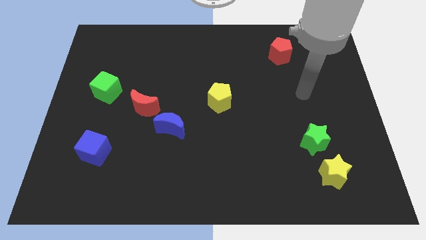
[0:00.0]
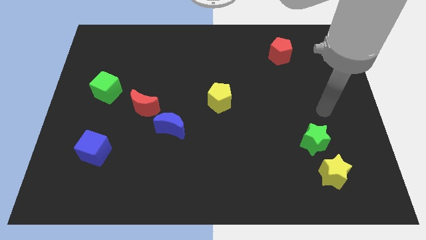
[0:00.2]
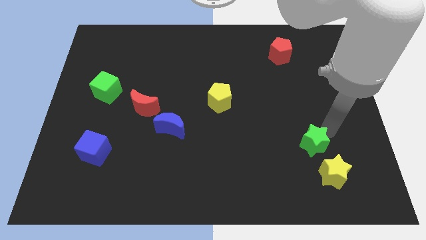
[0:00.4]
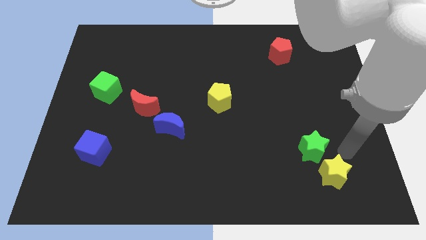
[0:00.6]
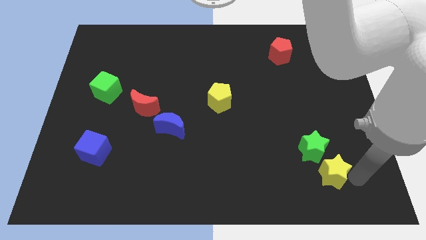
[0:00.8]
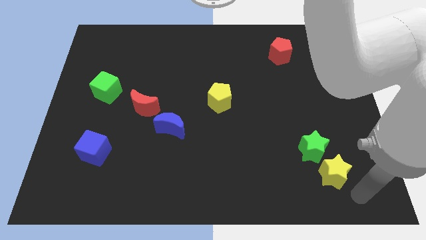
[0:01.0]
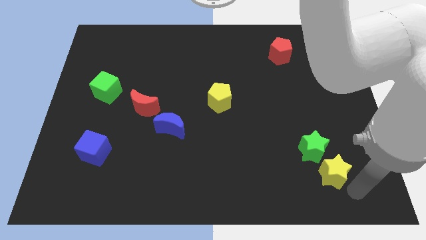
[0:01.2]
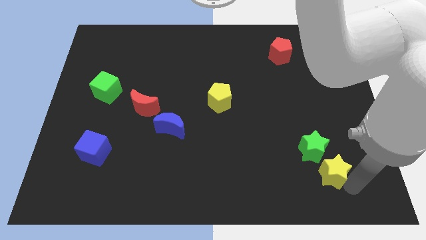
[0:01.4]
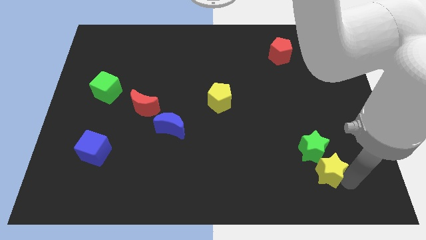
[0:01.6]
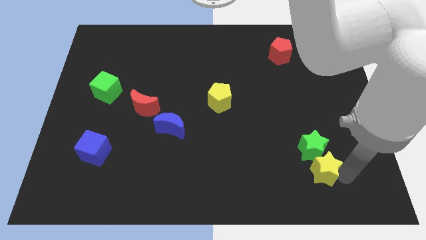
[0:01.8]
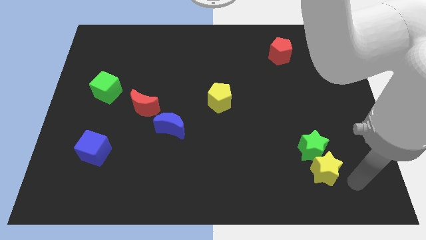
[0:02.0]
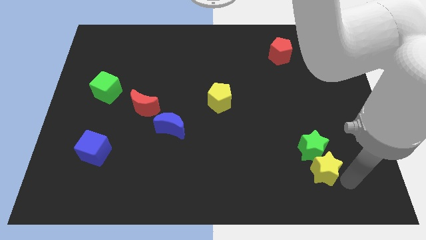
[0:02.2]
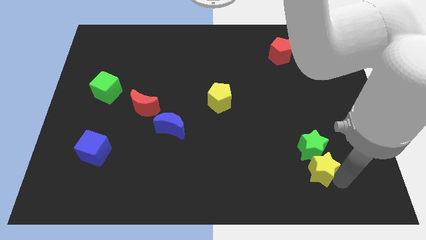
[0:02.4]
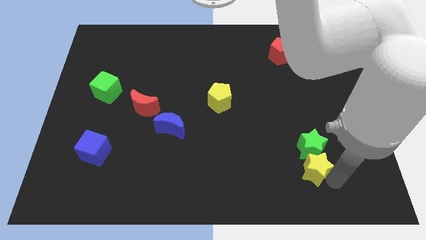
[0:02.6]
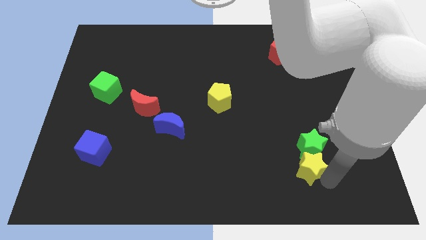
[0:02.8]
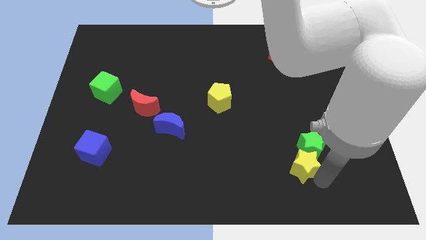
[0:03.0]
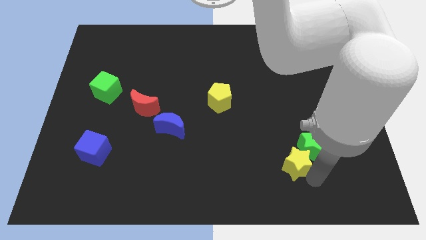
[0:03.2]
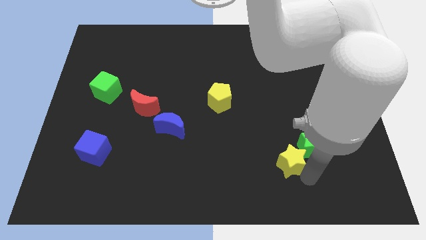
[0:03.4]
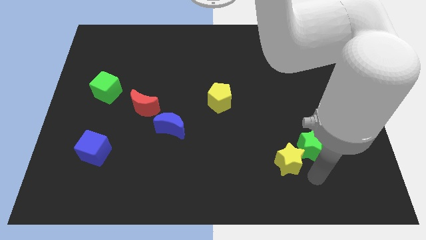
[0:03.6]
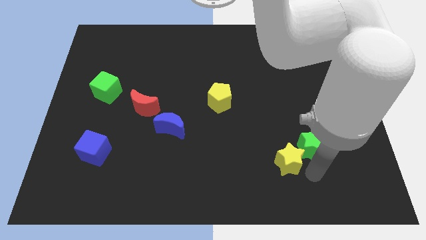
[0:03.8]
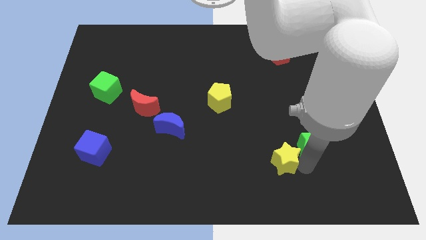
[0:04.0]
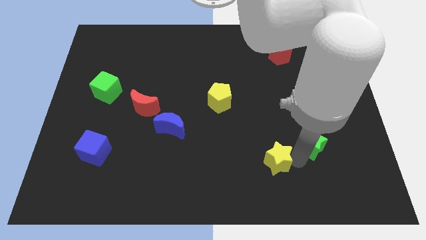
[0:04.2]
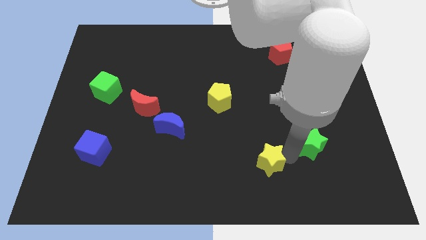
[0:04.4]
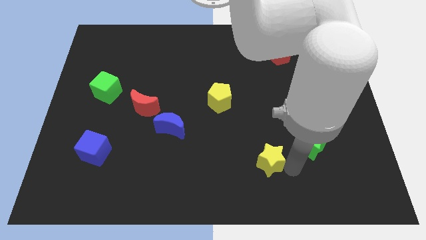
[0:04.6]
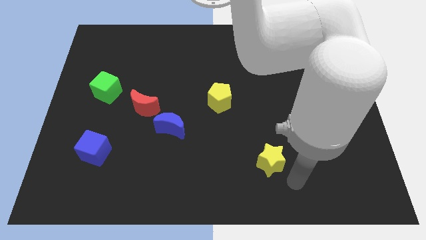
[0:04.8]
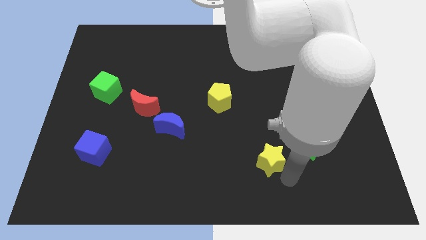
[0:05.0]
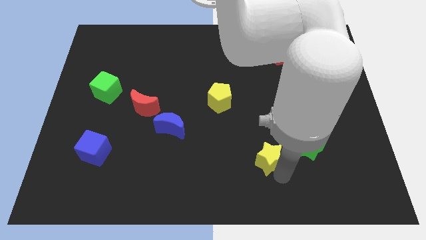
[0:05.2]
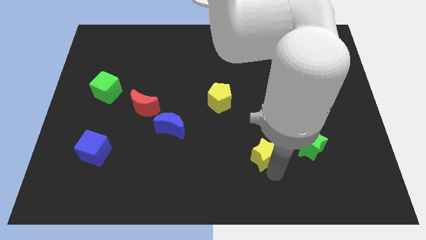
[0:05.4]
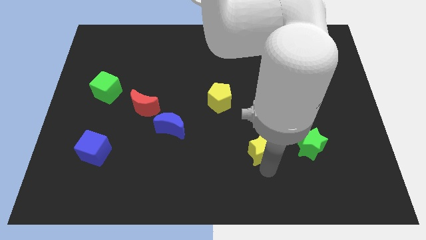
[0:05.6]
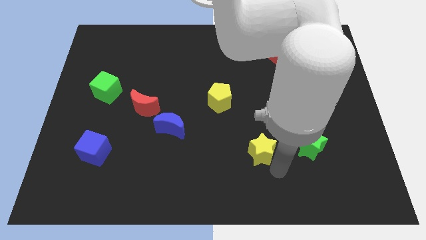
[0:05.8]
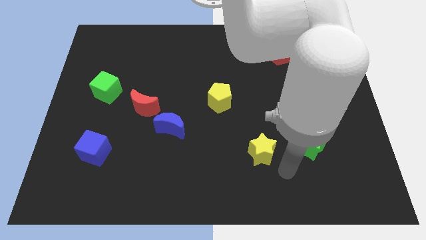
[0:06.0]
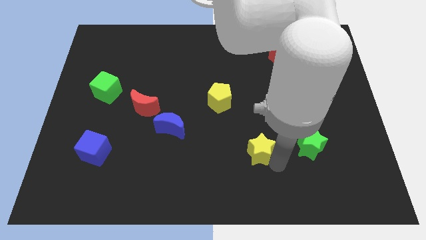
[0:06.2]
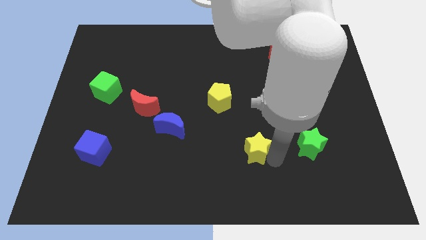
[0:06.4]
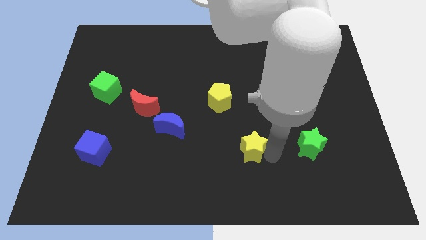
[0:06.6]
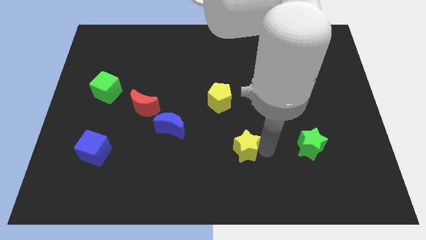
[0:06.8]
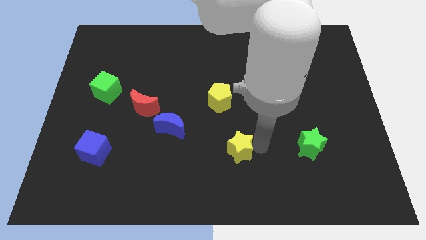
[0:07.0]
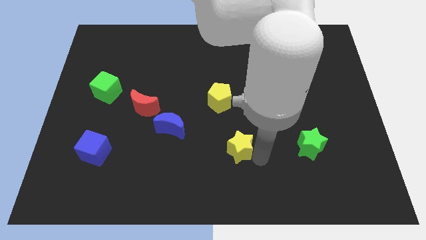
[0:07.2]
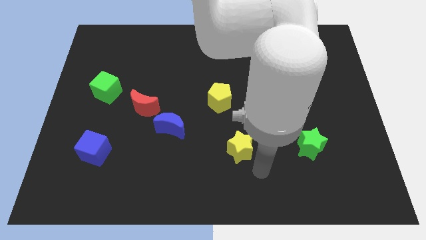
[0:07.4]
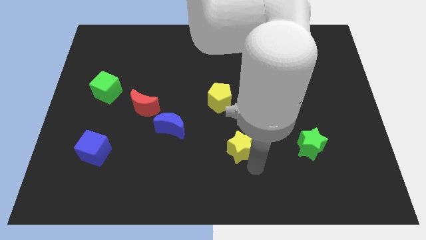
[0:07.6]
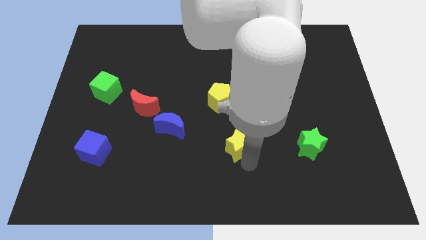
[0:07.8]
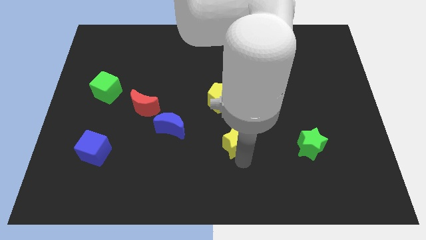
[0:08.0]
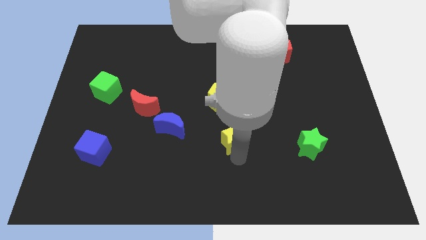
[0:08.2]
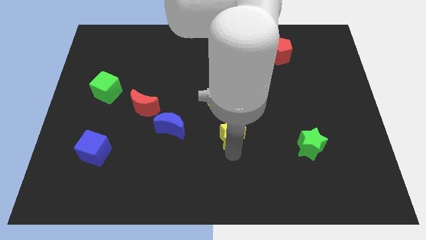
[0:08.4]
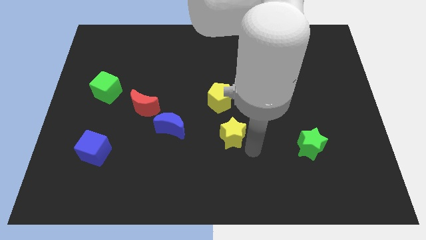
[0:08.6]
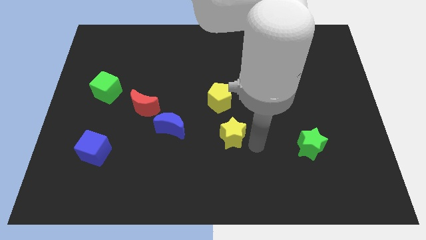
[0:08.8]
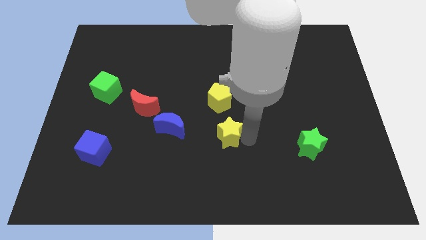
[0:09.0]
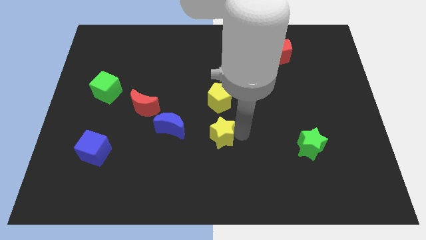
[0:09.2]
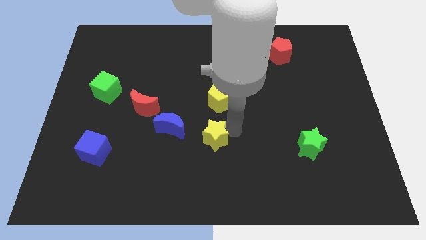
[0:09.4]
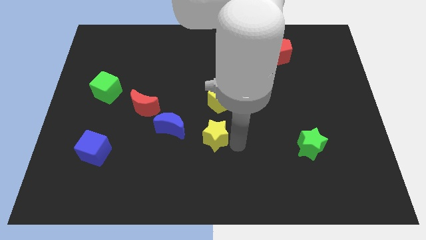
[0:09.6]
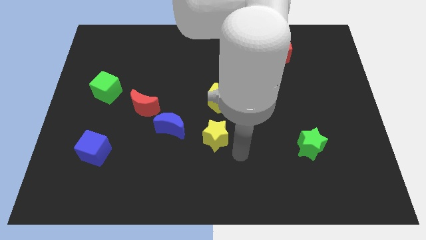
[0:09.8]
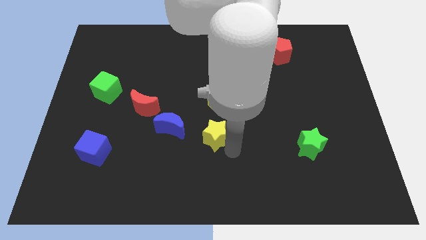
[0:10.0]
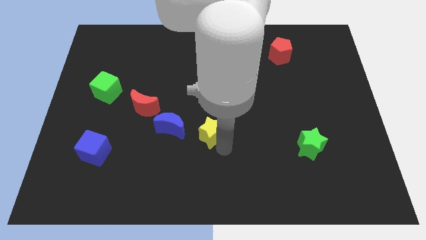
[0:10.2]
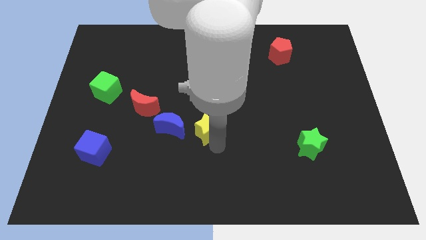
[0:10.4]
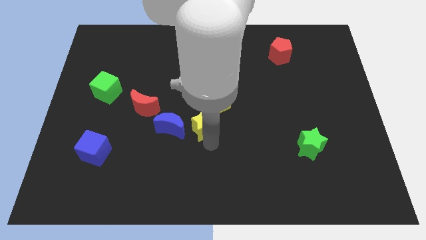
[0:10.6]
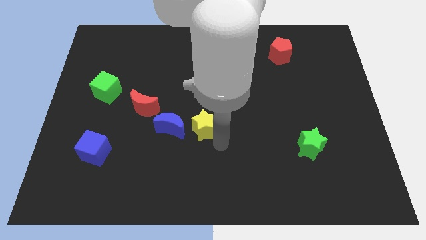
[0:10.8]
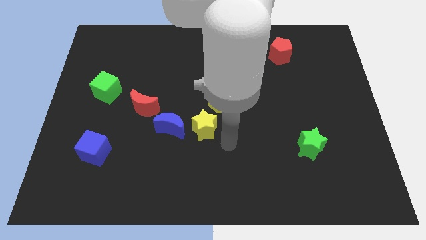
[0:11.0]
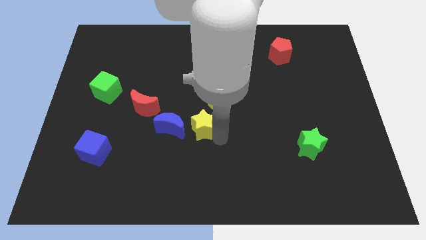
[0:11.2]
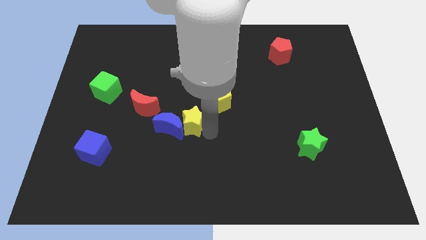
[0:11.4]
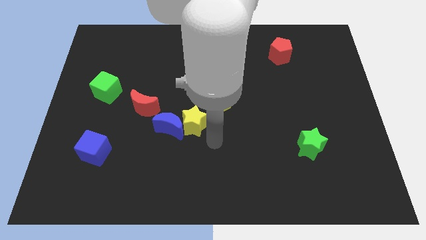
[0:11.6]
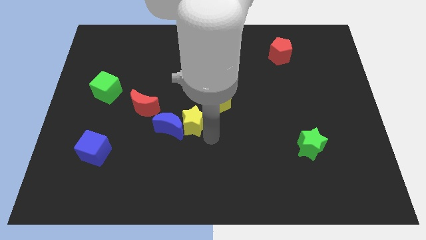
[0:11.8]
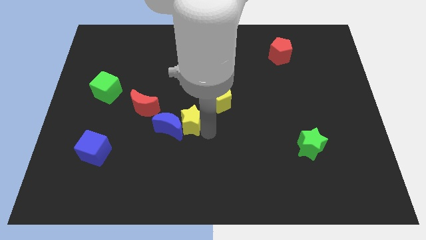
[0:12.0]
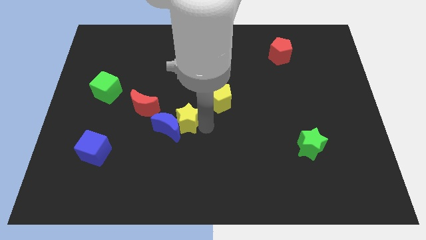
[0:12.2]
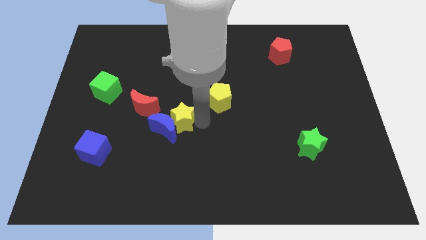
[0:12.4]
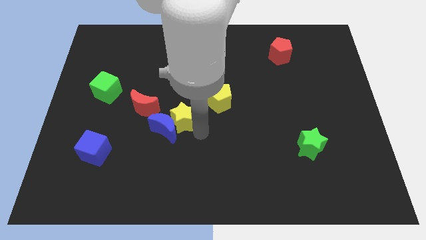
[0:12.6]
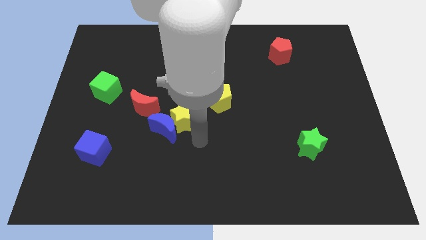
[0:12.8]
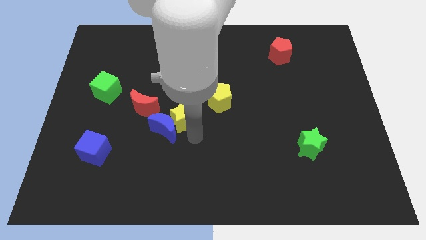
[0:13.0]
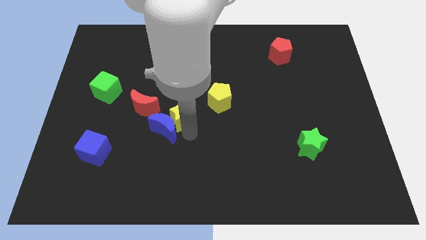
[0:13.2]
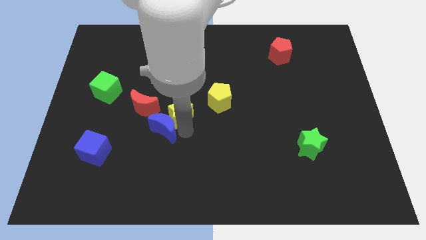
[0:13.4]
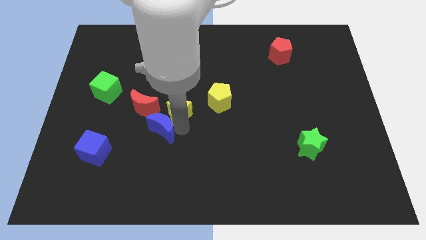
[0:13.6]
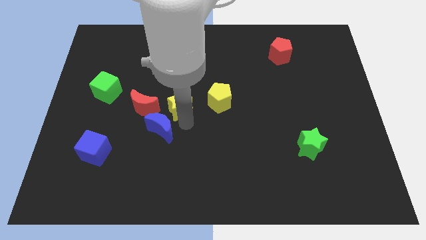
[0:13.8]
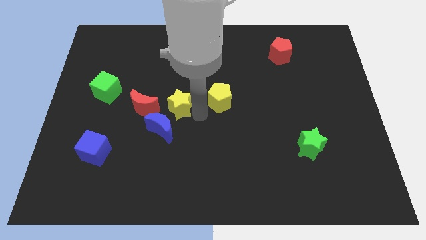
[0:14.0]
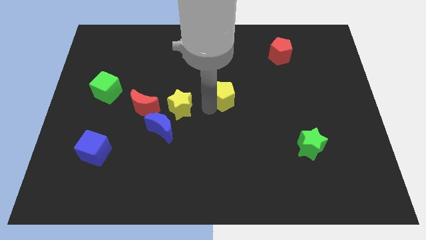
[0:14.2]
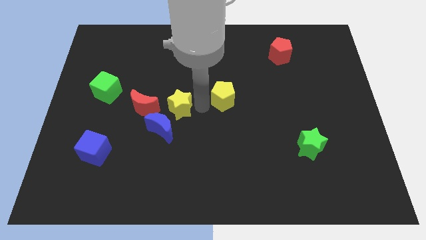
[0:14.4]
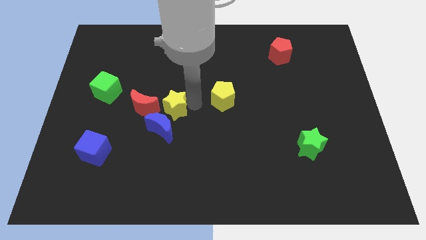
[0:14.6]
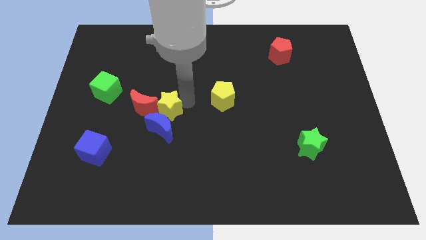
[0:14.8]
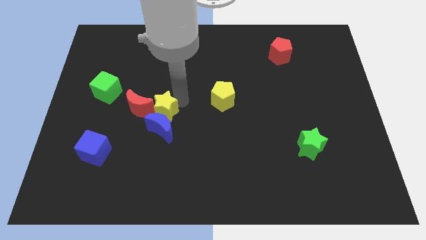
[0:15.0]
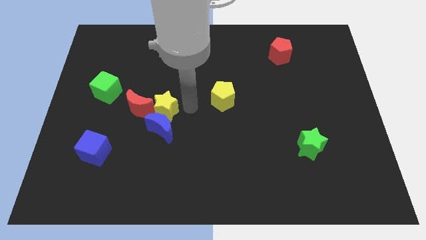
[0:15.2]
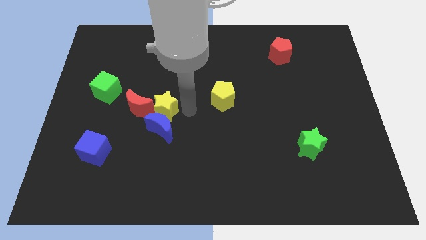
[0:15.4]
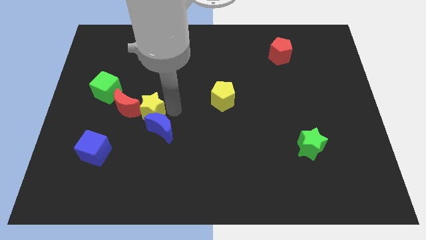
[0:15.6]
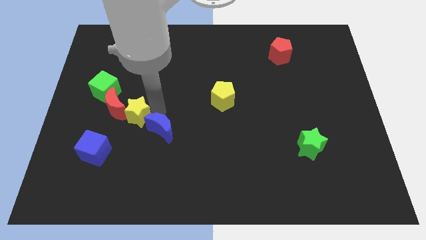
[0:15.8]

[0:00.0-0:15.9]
push the yellow star to the red moon
